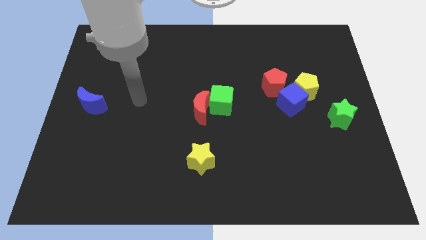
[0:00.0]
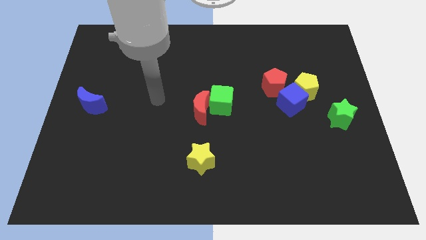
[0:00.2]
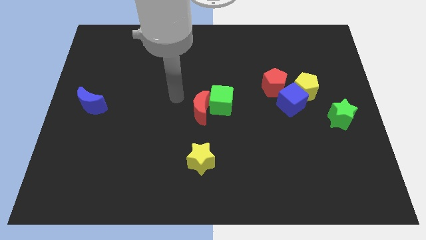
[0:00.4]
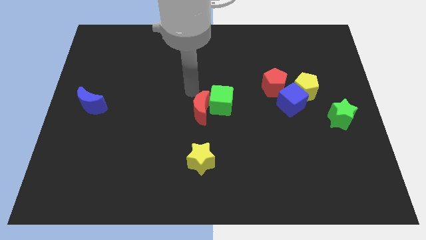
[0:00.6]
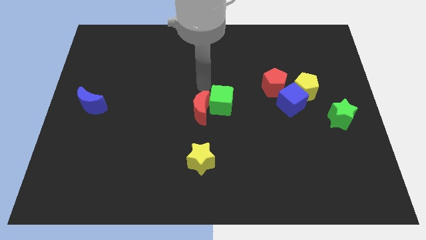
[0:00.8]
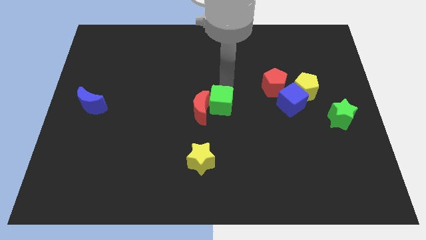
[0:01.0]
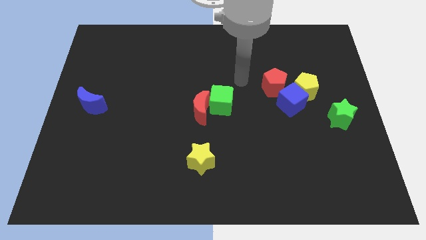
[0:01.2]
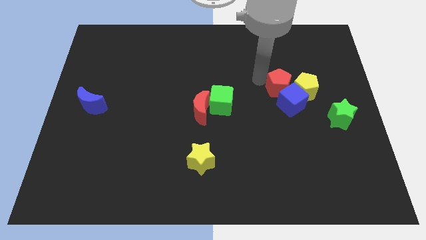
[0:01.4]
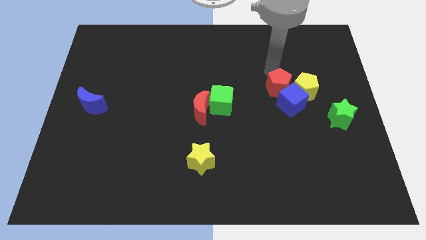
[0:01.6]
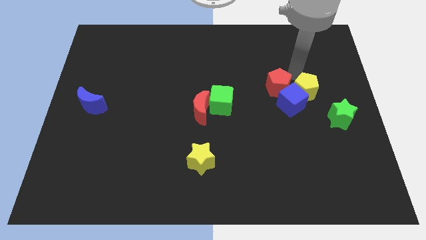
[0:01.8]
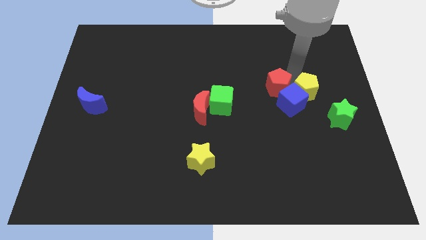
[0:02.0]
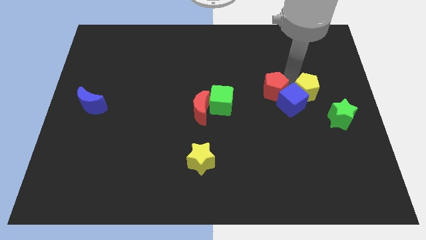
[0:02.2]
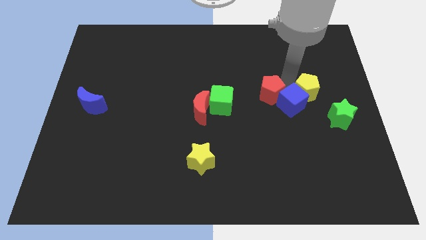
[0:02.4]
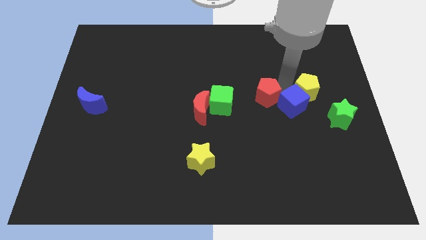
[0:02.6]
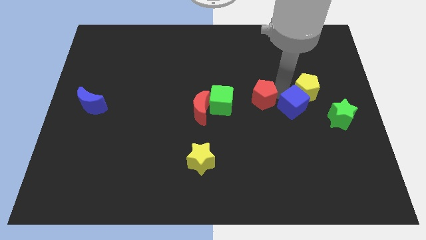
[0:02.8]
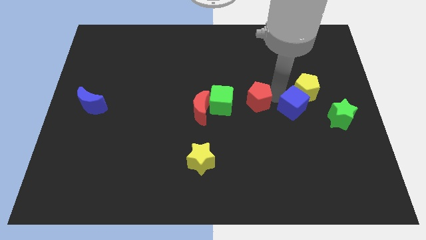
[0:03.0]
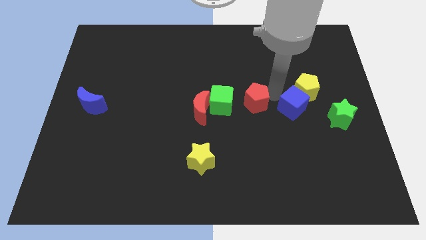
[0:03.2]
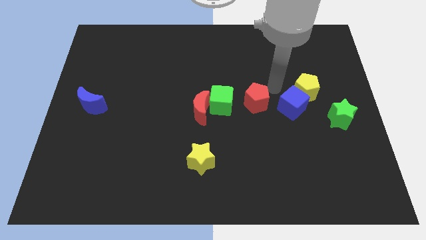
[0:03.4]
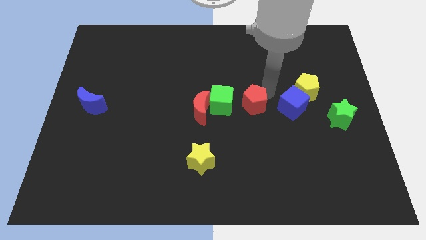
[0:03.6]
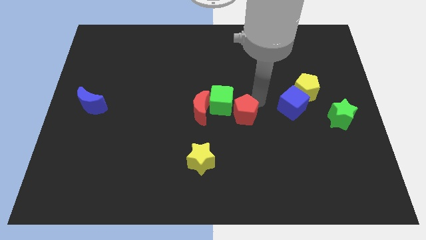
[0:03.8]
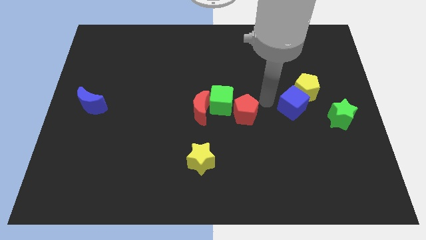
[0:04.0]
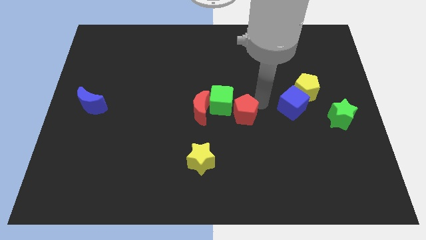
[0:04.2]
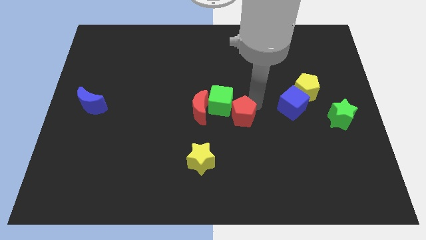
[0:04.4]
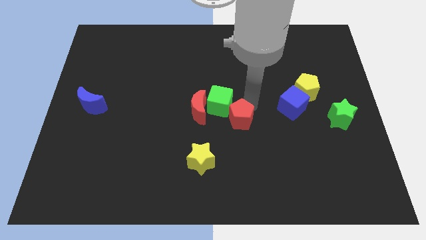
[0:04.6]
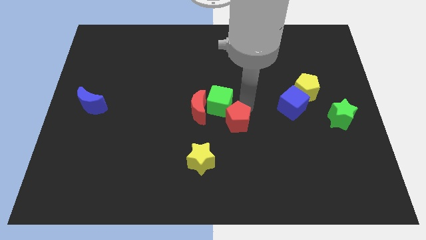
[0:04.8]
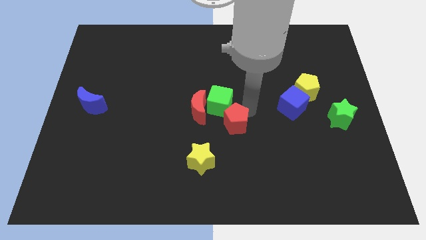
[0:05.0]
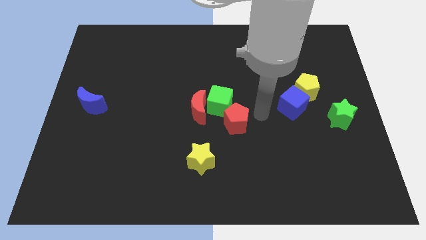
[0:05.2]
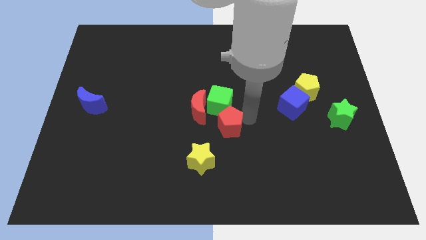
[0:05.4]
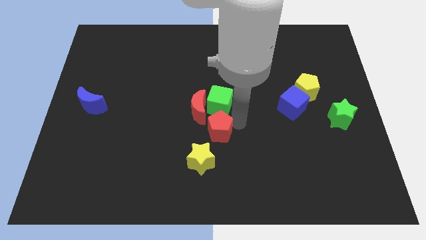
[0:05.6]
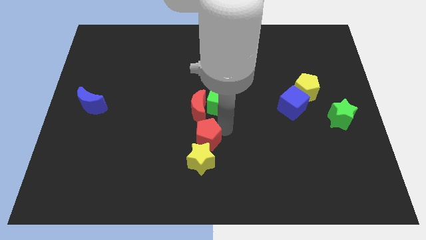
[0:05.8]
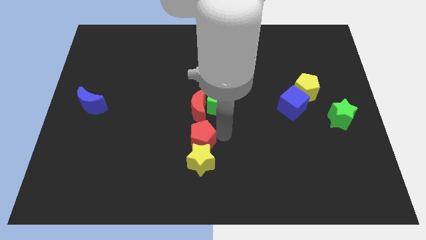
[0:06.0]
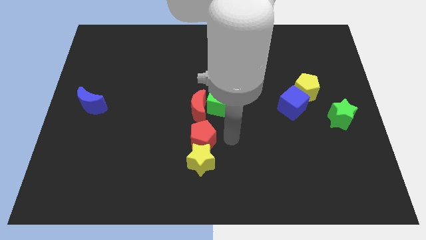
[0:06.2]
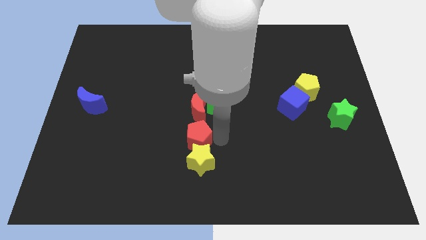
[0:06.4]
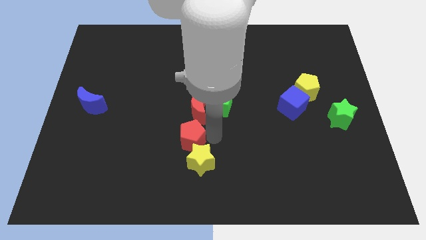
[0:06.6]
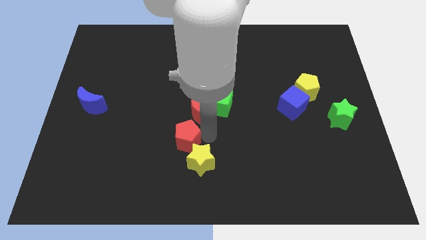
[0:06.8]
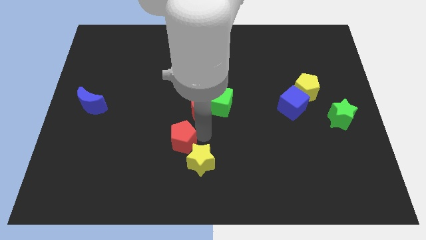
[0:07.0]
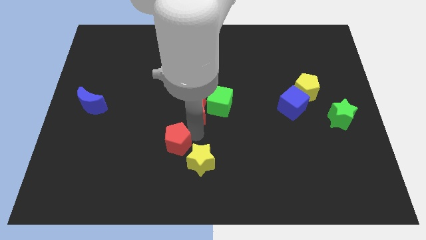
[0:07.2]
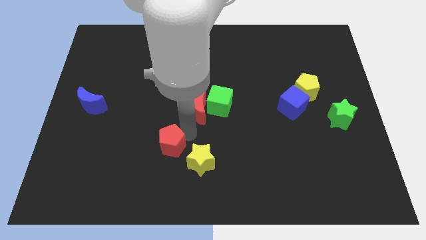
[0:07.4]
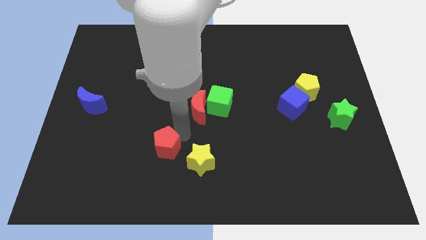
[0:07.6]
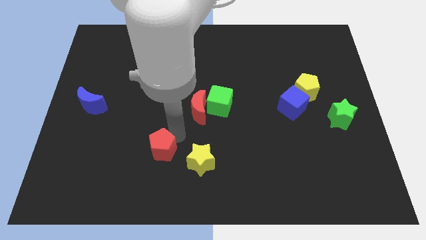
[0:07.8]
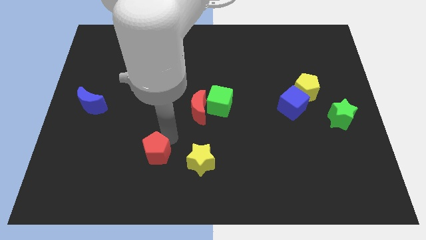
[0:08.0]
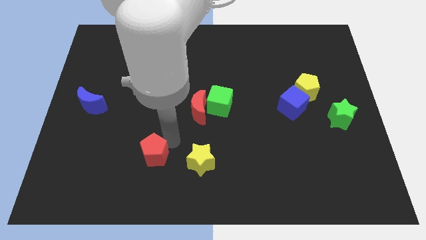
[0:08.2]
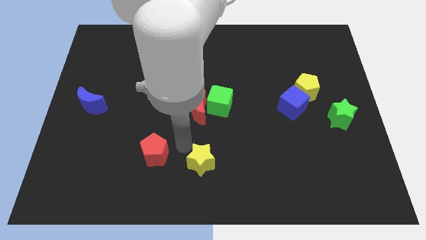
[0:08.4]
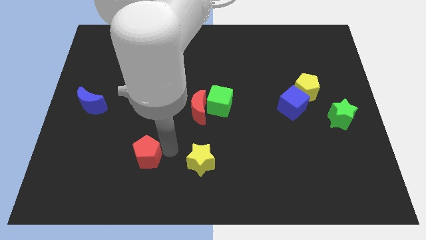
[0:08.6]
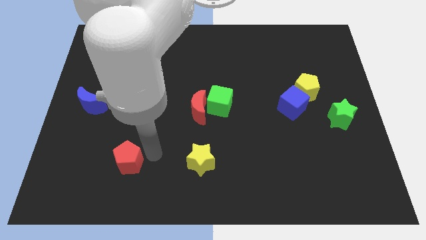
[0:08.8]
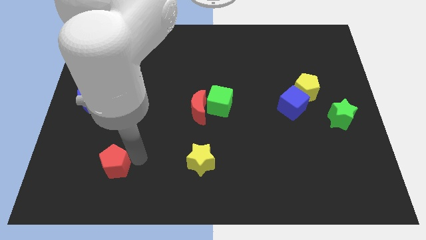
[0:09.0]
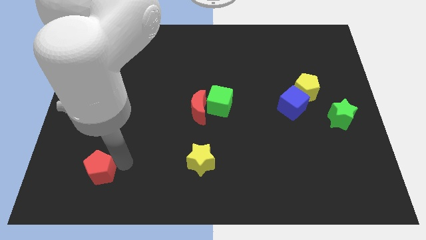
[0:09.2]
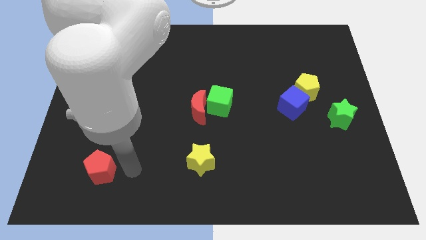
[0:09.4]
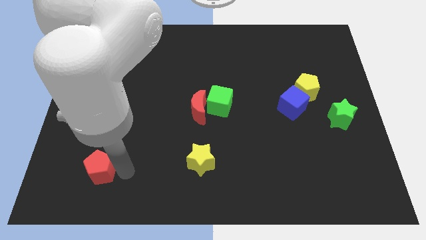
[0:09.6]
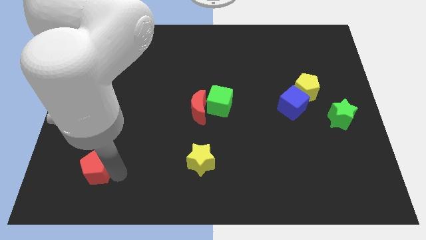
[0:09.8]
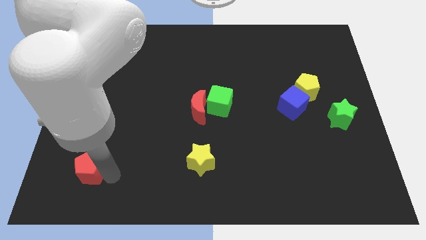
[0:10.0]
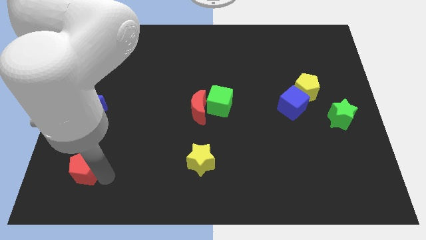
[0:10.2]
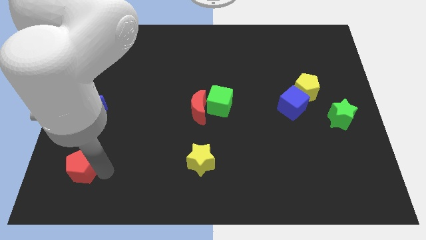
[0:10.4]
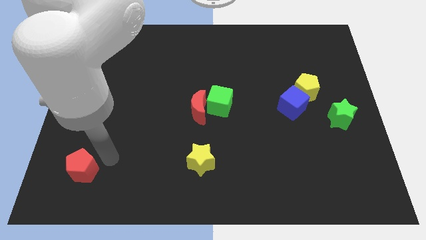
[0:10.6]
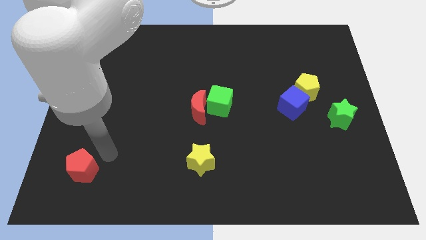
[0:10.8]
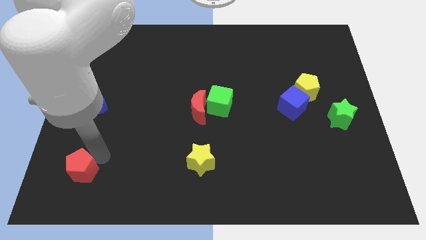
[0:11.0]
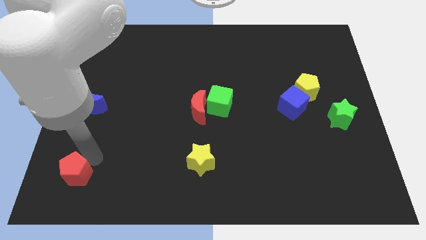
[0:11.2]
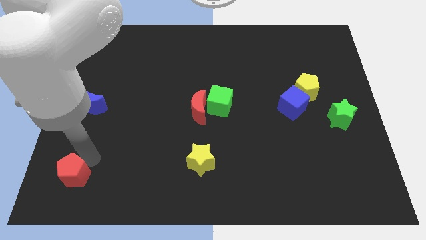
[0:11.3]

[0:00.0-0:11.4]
push the red pentagon to the bottom left
